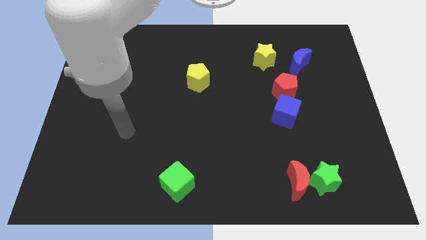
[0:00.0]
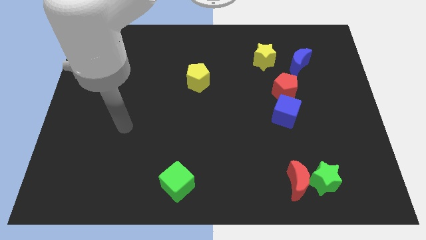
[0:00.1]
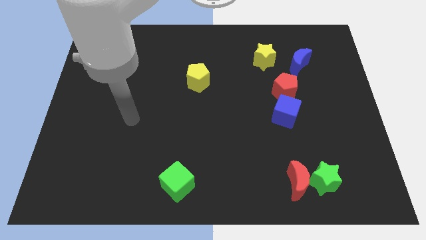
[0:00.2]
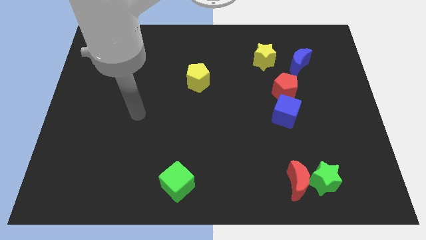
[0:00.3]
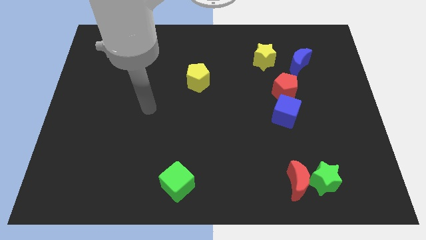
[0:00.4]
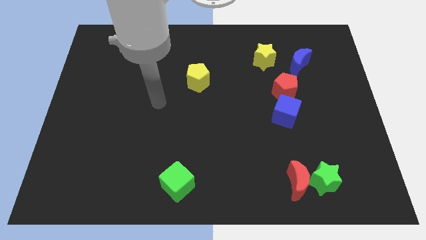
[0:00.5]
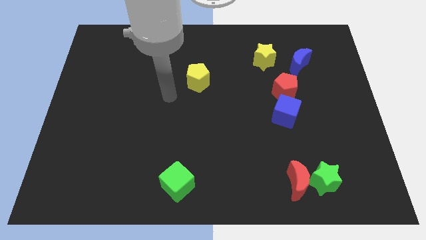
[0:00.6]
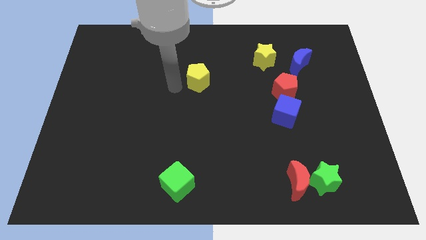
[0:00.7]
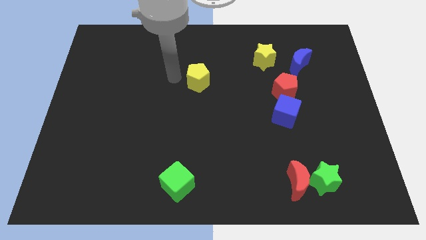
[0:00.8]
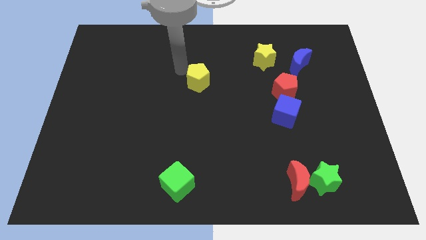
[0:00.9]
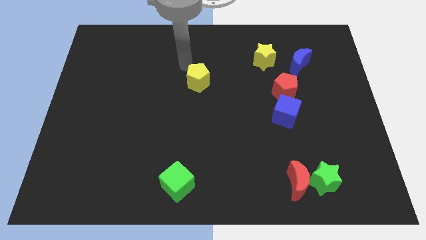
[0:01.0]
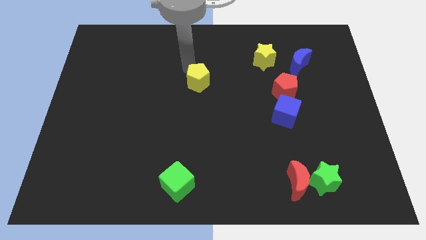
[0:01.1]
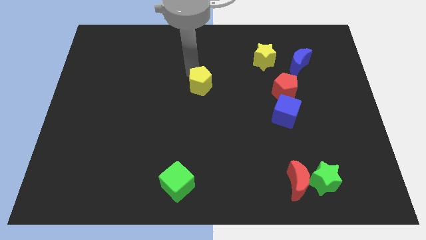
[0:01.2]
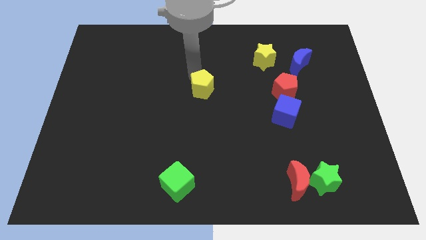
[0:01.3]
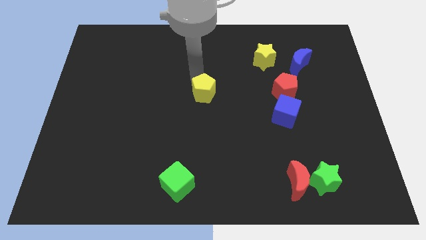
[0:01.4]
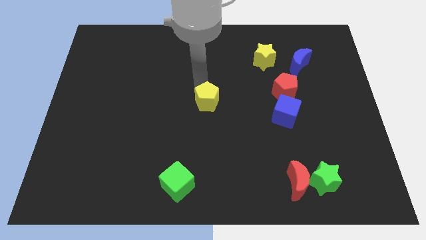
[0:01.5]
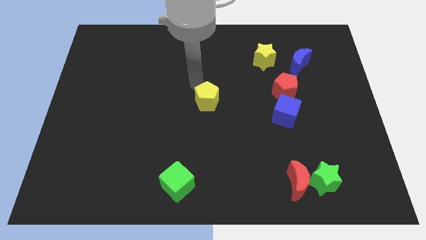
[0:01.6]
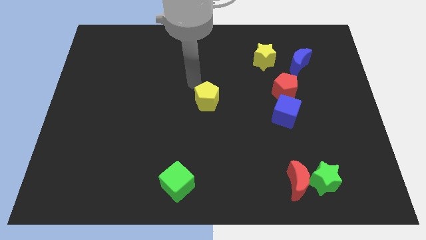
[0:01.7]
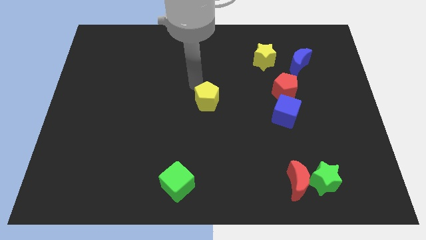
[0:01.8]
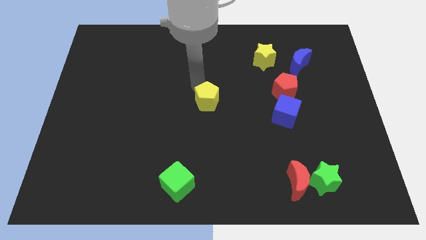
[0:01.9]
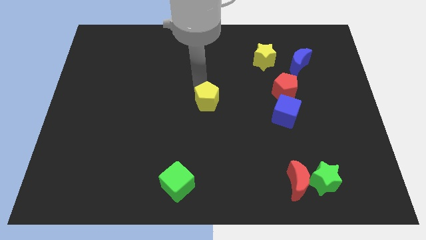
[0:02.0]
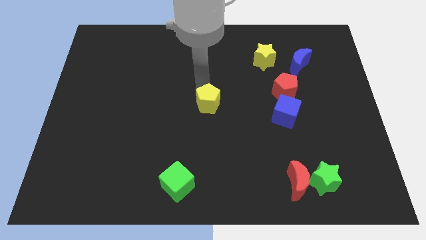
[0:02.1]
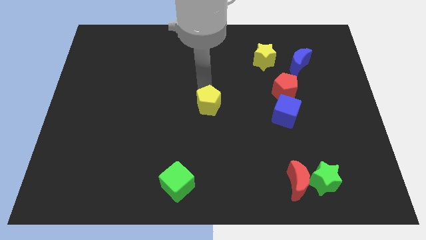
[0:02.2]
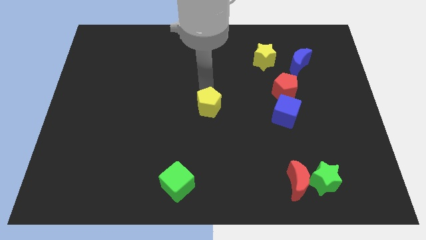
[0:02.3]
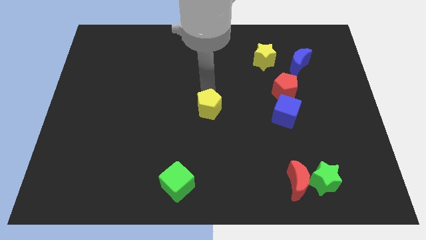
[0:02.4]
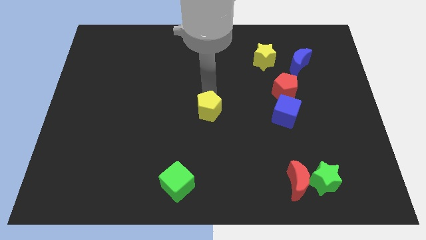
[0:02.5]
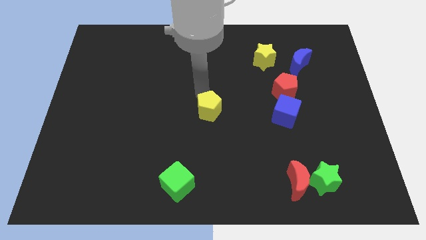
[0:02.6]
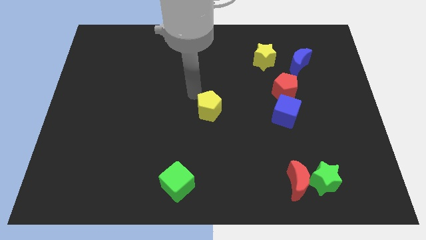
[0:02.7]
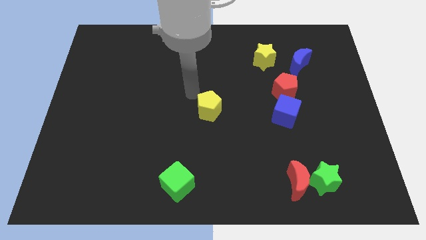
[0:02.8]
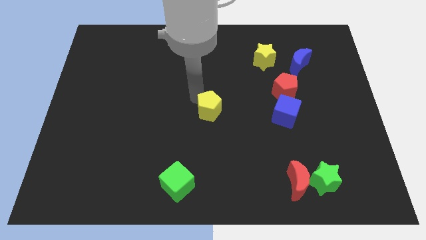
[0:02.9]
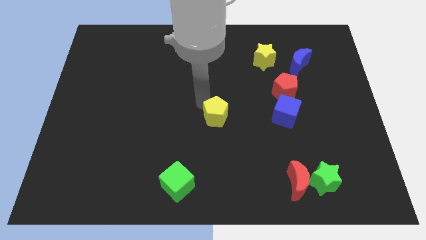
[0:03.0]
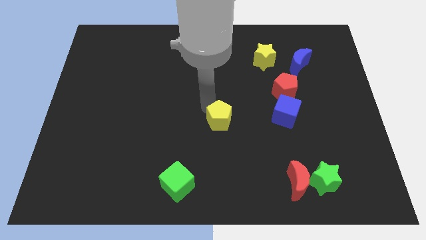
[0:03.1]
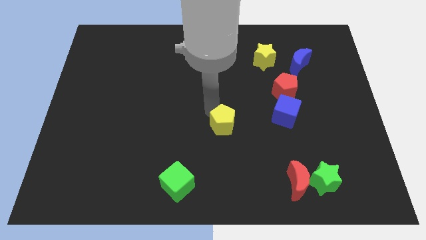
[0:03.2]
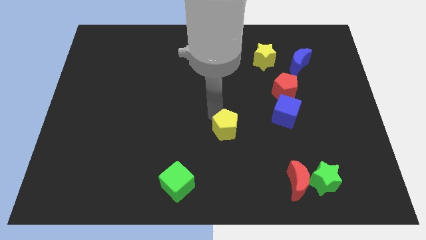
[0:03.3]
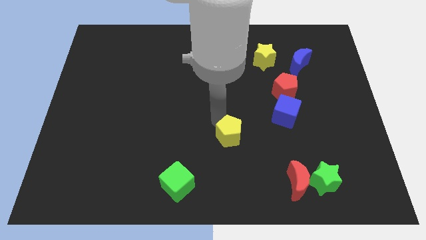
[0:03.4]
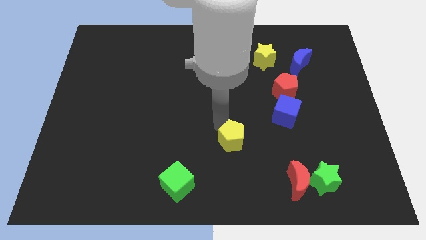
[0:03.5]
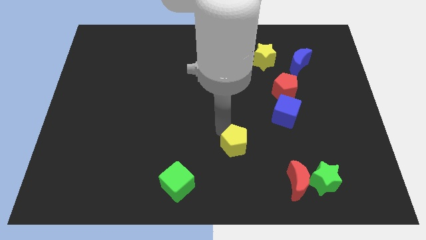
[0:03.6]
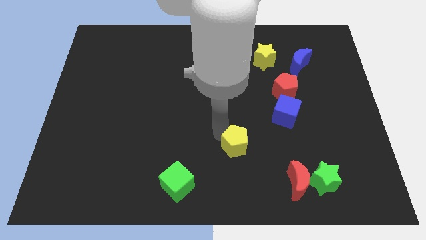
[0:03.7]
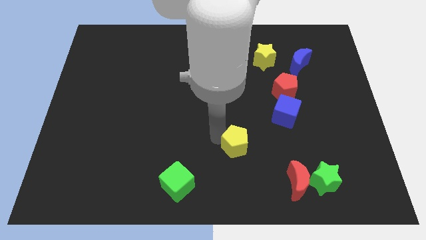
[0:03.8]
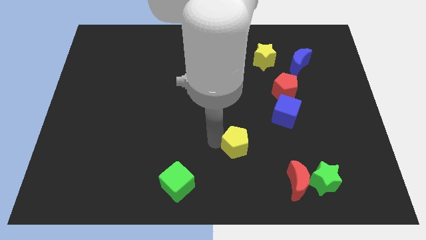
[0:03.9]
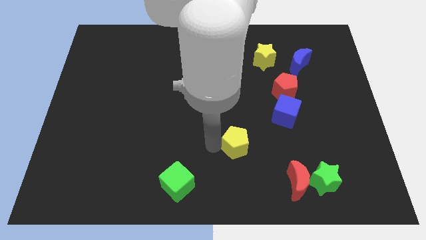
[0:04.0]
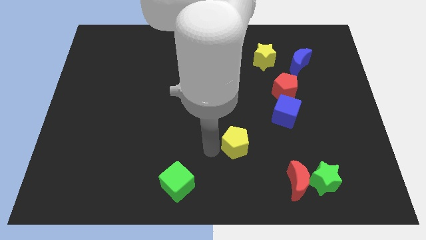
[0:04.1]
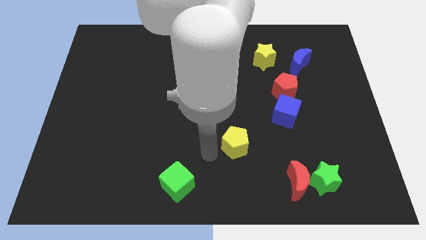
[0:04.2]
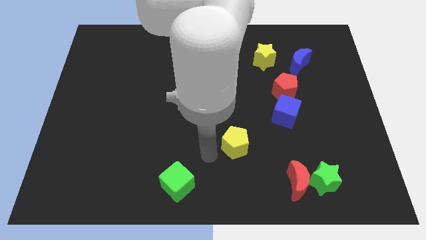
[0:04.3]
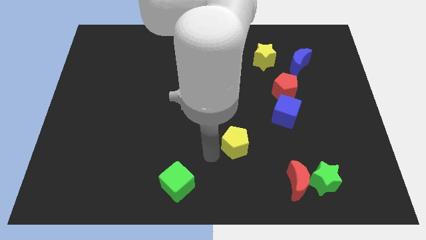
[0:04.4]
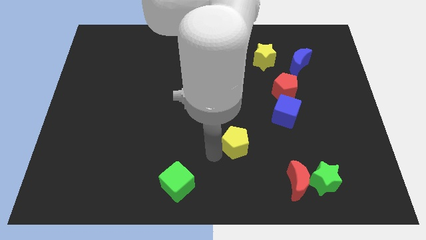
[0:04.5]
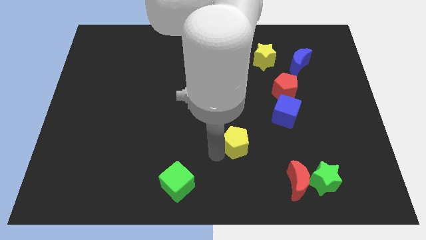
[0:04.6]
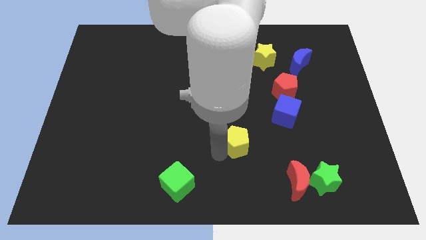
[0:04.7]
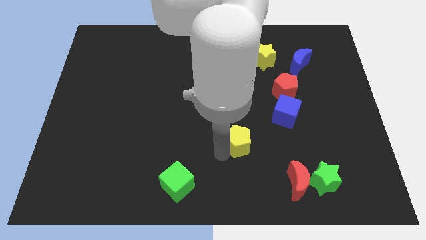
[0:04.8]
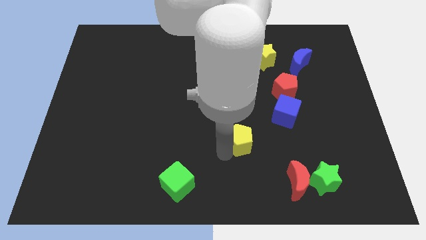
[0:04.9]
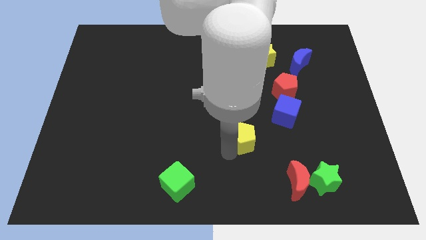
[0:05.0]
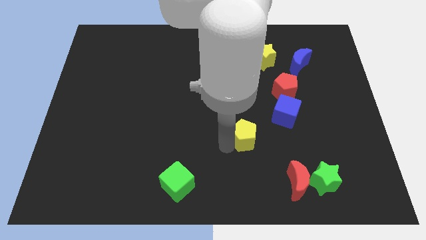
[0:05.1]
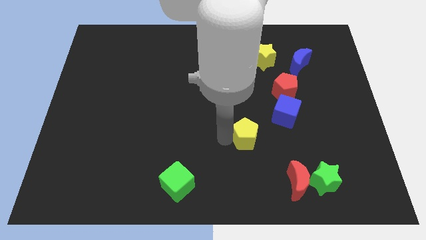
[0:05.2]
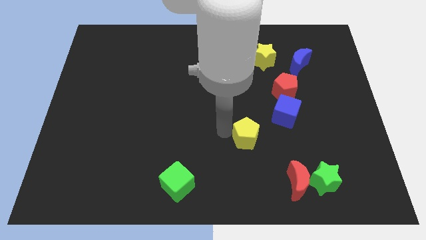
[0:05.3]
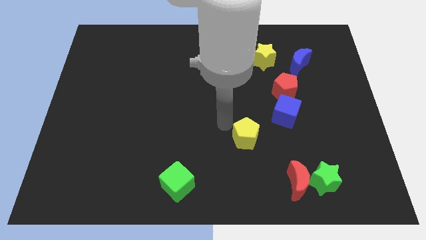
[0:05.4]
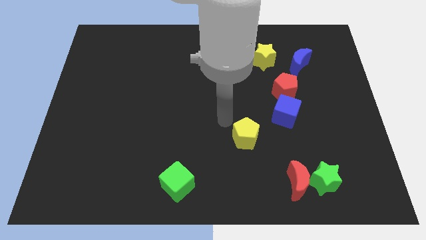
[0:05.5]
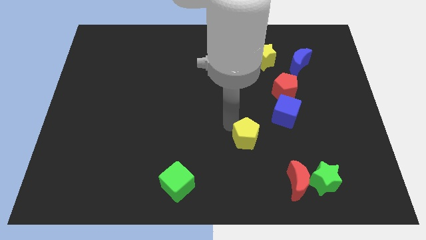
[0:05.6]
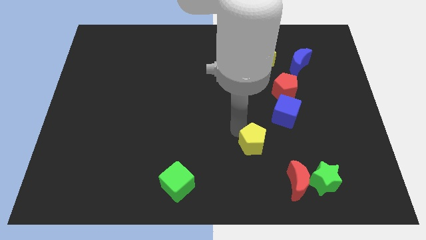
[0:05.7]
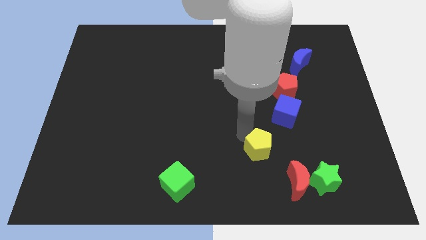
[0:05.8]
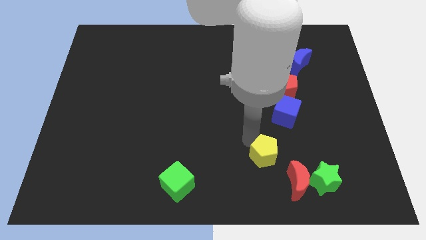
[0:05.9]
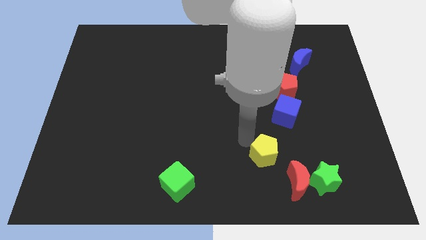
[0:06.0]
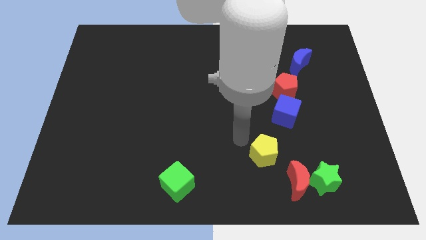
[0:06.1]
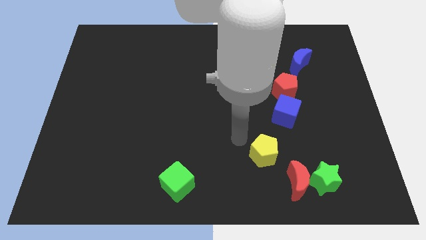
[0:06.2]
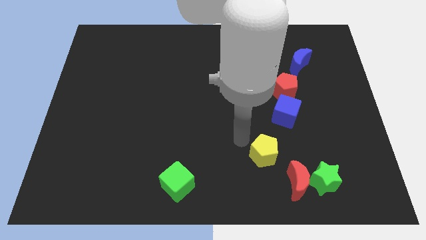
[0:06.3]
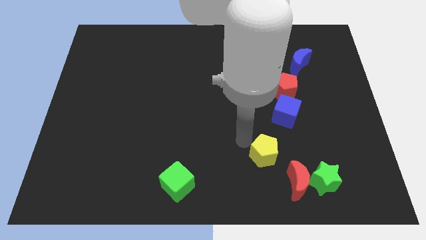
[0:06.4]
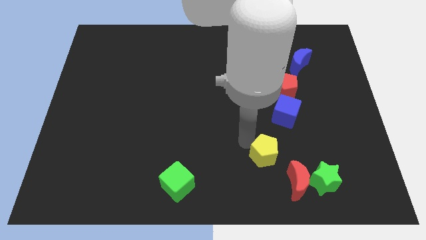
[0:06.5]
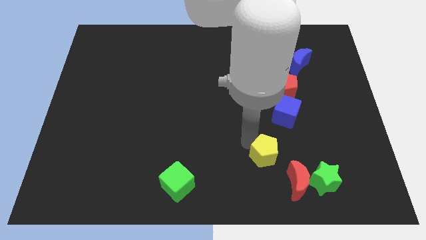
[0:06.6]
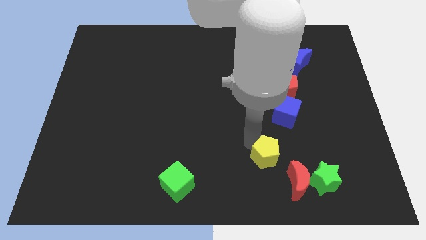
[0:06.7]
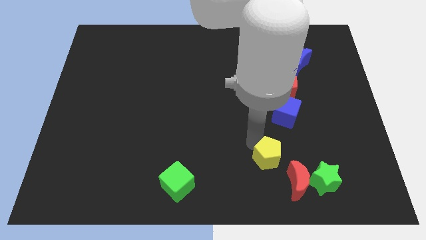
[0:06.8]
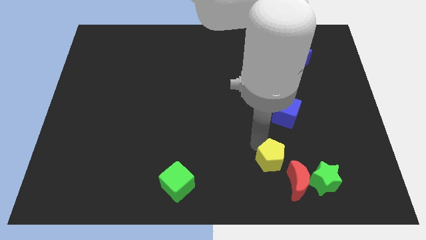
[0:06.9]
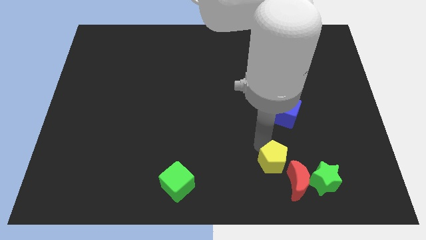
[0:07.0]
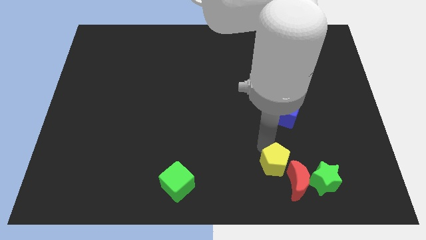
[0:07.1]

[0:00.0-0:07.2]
put the yellow pentagon next to the red moon

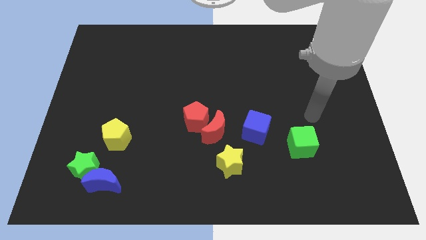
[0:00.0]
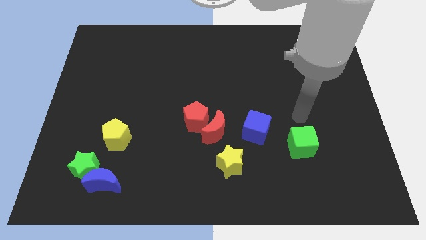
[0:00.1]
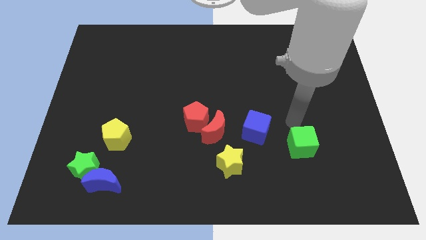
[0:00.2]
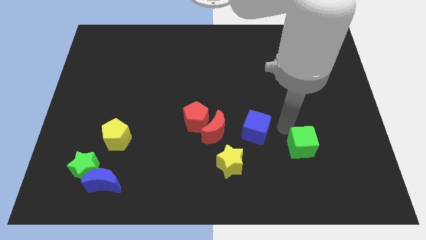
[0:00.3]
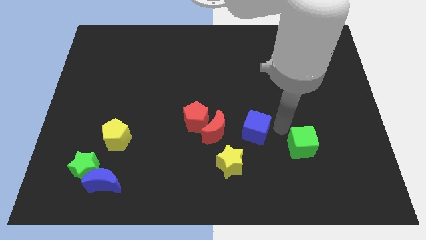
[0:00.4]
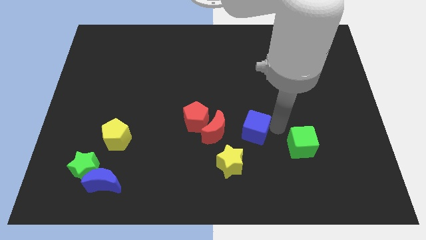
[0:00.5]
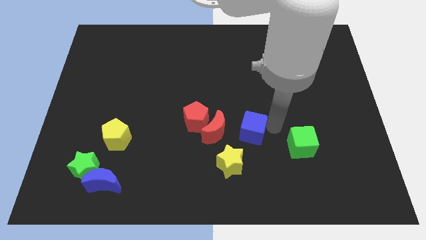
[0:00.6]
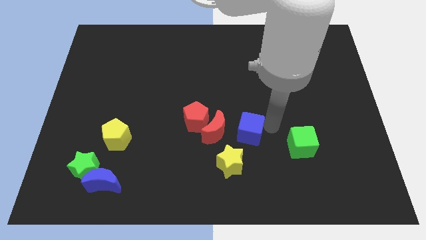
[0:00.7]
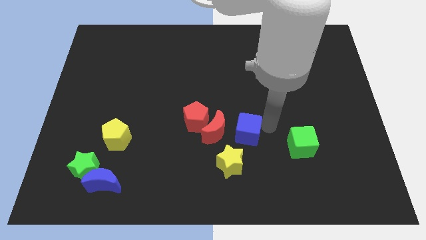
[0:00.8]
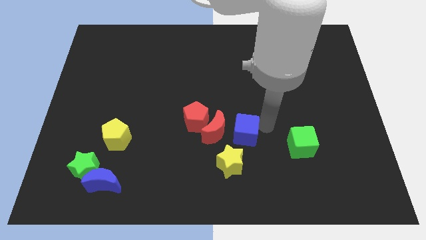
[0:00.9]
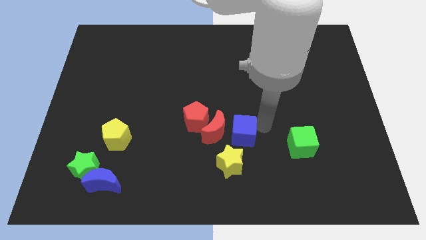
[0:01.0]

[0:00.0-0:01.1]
slide the blue cube towards the red moon
